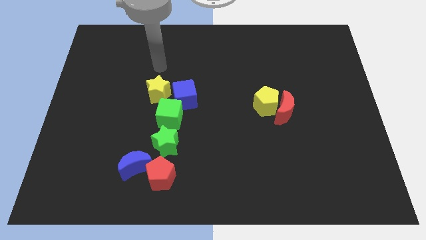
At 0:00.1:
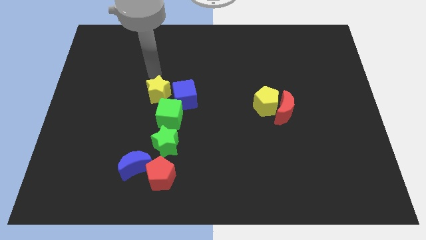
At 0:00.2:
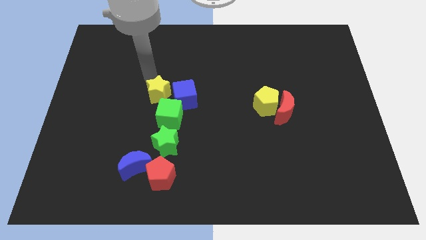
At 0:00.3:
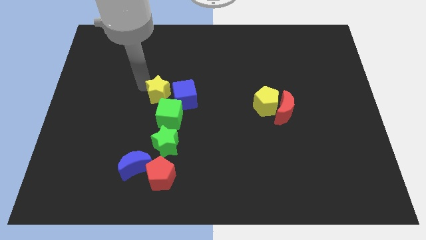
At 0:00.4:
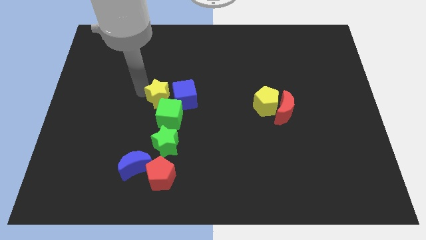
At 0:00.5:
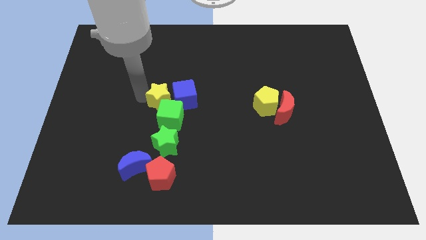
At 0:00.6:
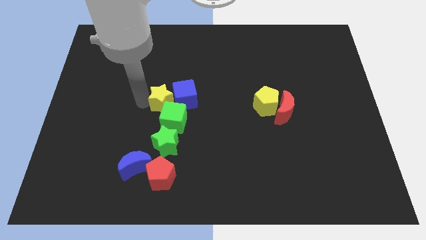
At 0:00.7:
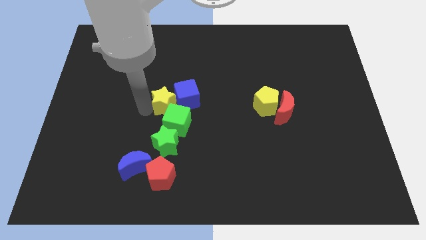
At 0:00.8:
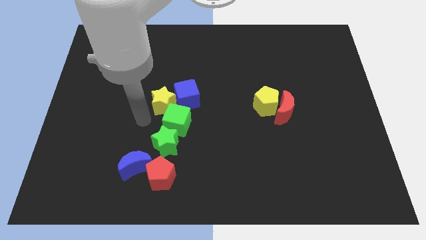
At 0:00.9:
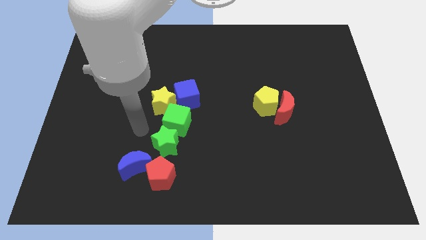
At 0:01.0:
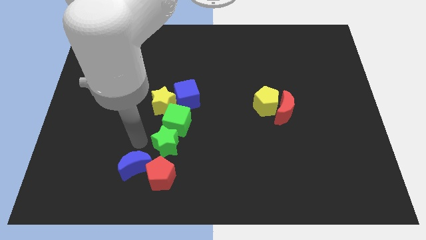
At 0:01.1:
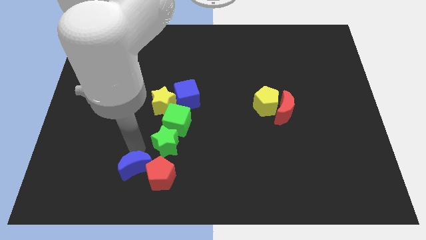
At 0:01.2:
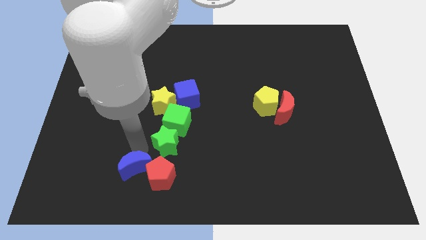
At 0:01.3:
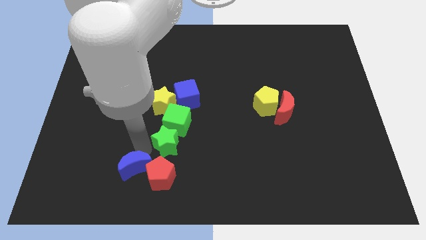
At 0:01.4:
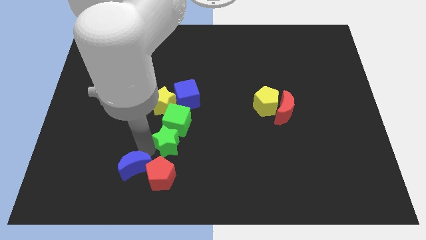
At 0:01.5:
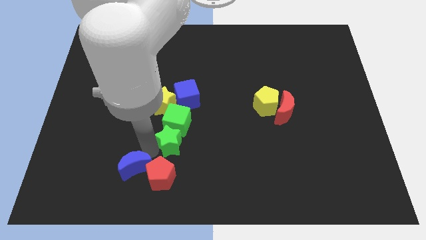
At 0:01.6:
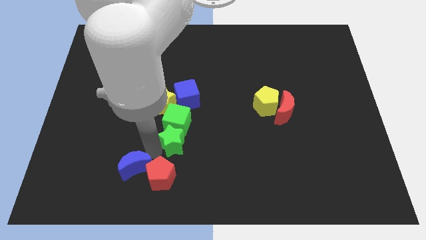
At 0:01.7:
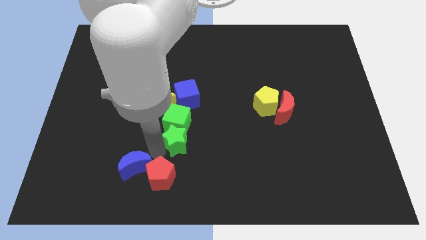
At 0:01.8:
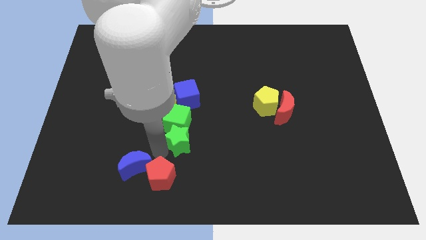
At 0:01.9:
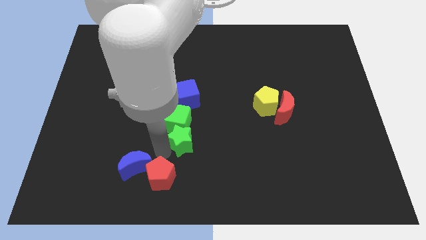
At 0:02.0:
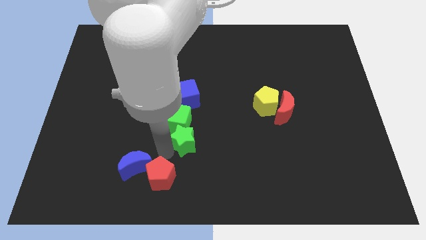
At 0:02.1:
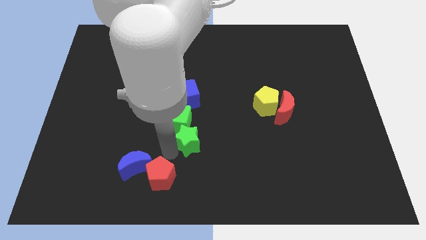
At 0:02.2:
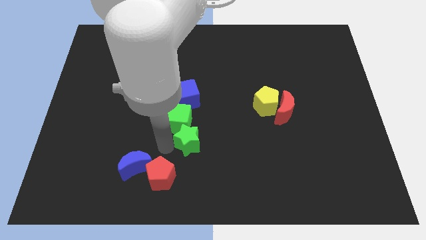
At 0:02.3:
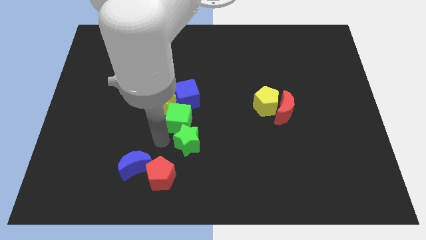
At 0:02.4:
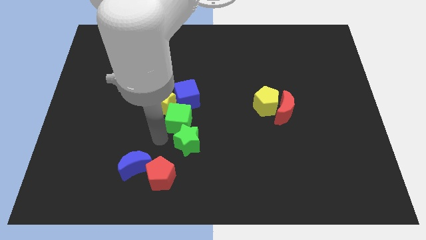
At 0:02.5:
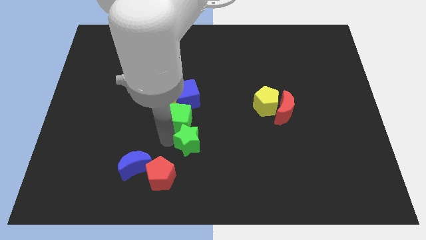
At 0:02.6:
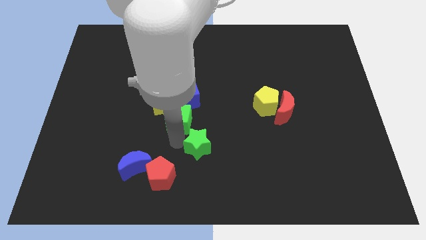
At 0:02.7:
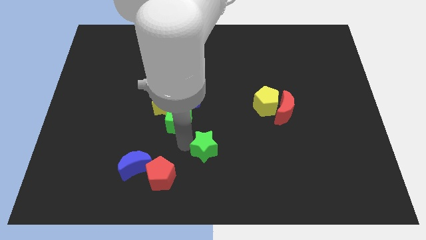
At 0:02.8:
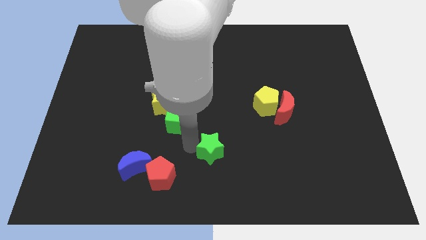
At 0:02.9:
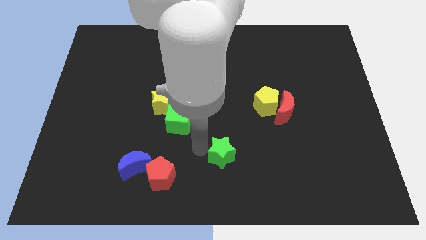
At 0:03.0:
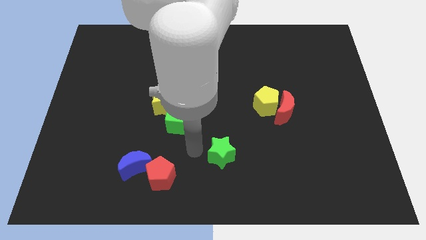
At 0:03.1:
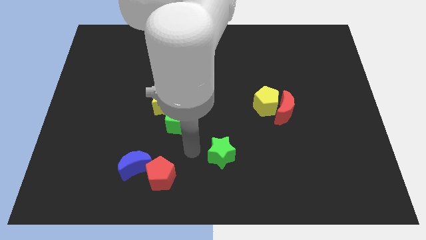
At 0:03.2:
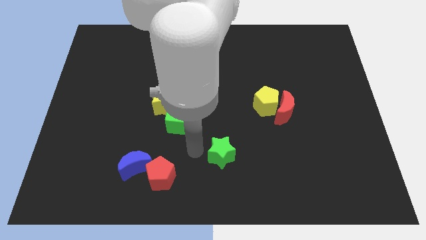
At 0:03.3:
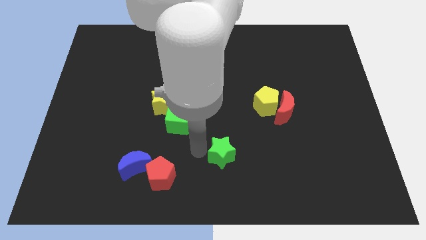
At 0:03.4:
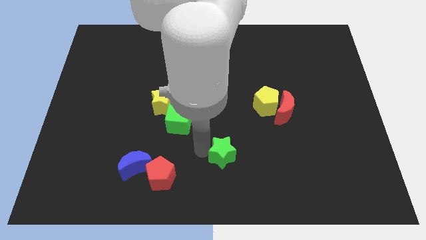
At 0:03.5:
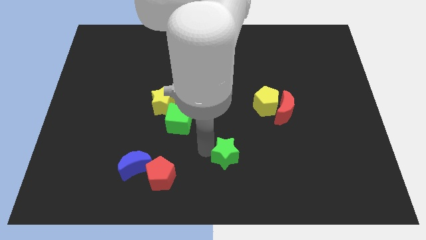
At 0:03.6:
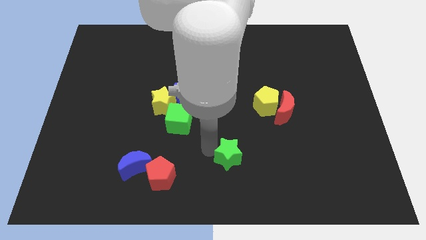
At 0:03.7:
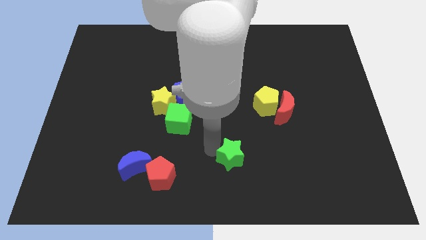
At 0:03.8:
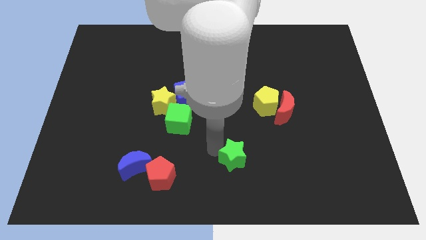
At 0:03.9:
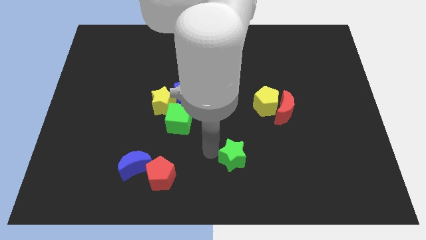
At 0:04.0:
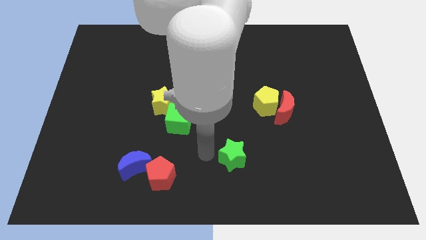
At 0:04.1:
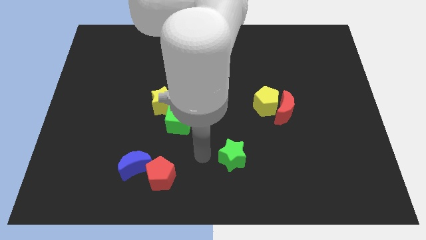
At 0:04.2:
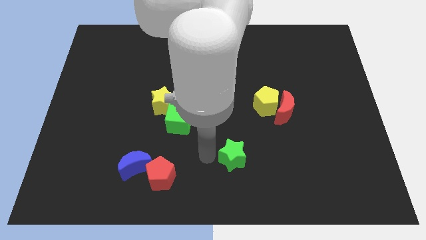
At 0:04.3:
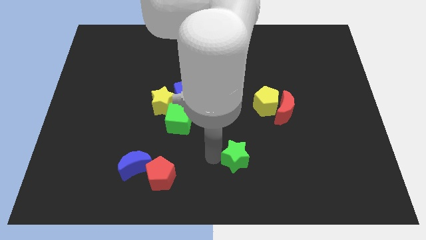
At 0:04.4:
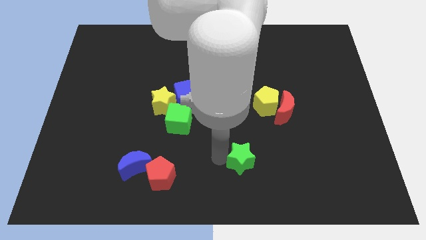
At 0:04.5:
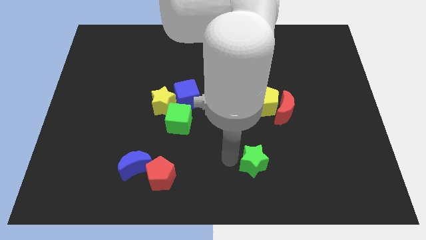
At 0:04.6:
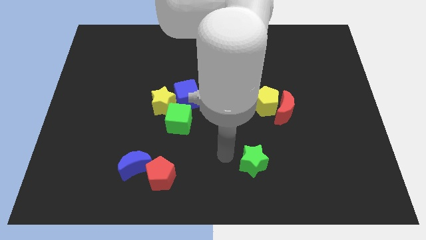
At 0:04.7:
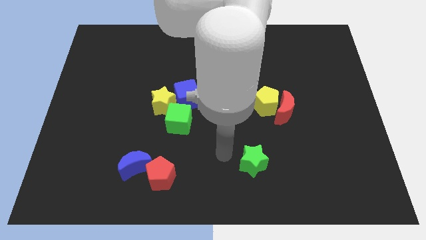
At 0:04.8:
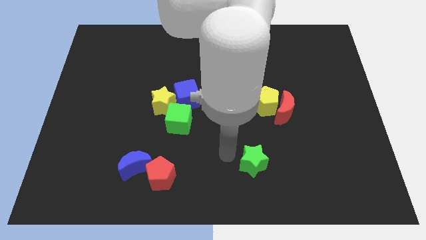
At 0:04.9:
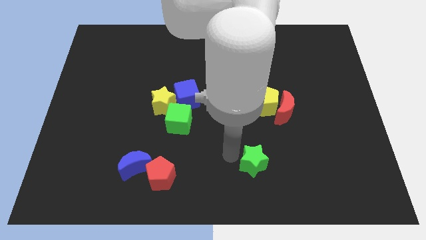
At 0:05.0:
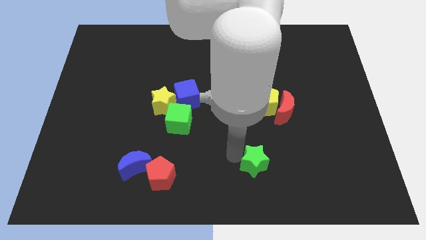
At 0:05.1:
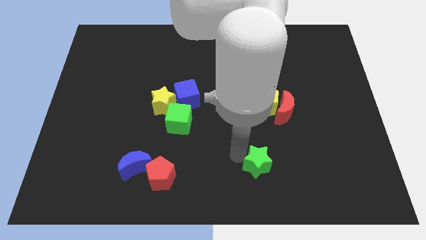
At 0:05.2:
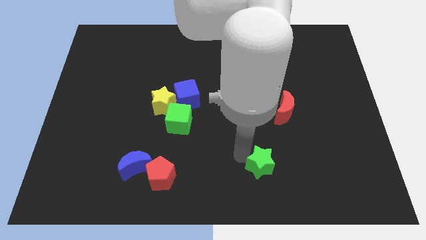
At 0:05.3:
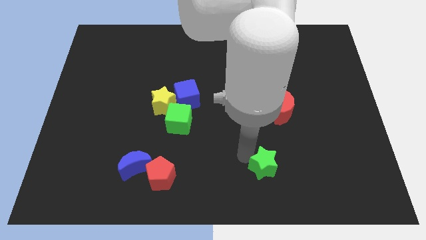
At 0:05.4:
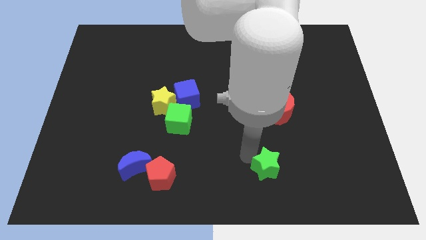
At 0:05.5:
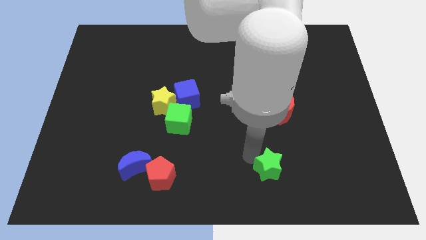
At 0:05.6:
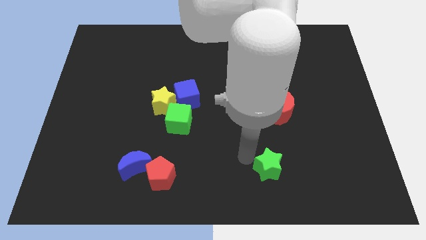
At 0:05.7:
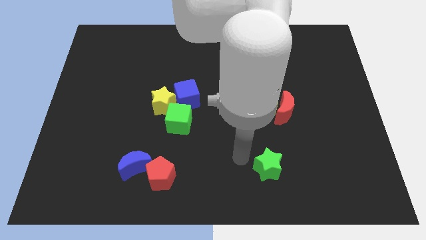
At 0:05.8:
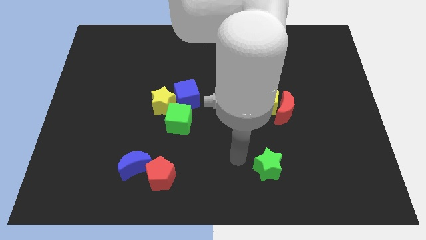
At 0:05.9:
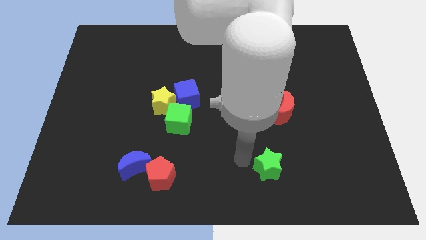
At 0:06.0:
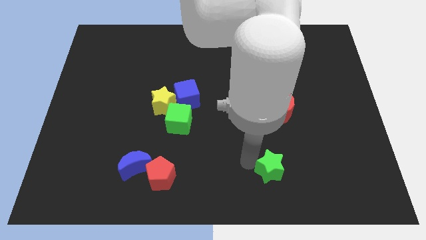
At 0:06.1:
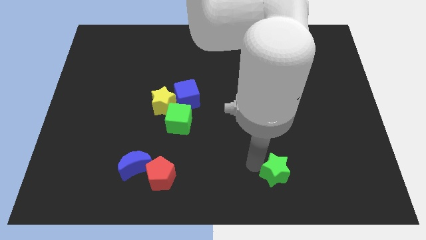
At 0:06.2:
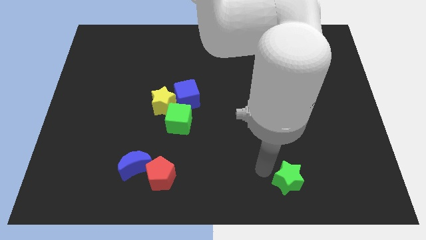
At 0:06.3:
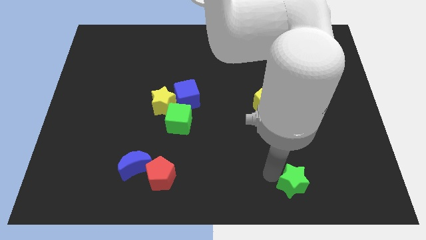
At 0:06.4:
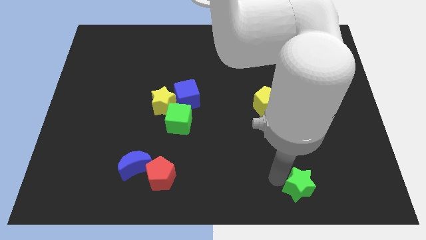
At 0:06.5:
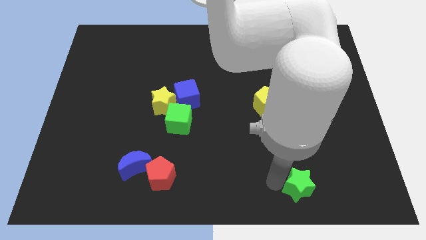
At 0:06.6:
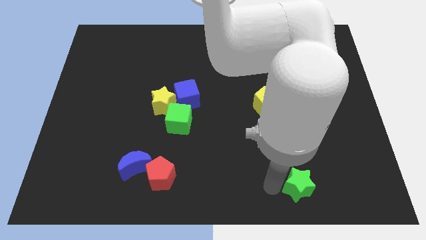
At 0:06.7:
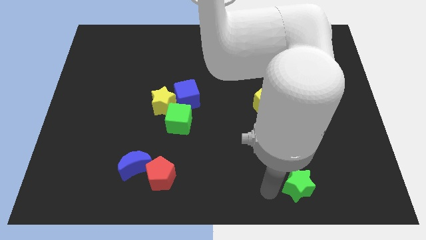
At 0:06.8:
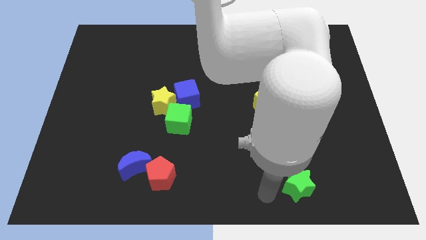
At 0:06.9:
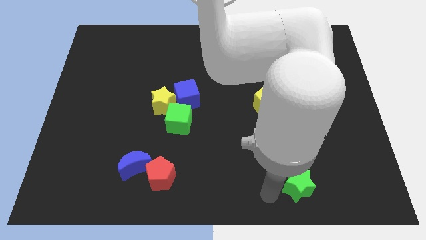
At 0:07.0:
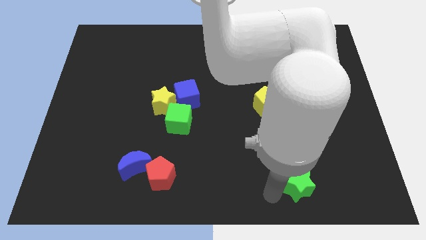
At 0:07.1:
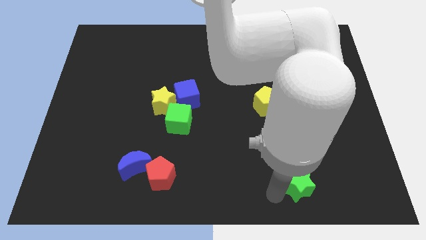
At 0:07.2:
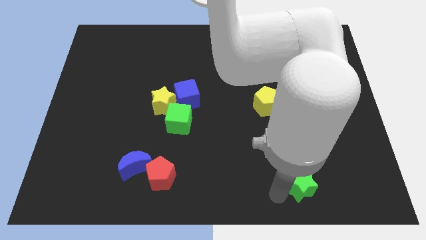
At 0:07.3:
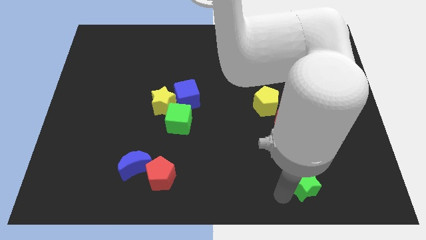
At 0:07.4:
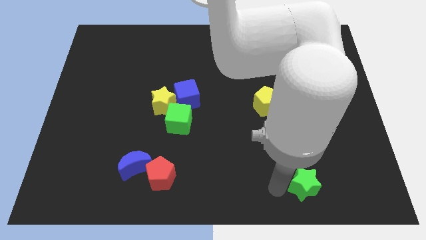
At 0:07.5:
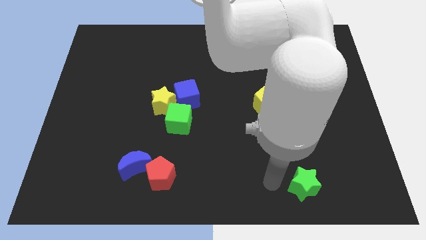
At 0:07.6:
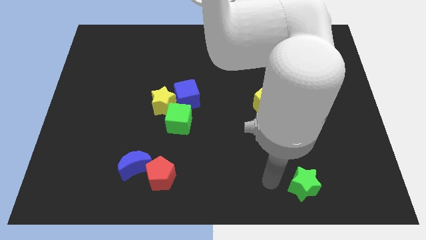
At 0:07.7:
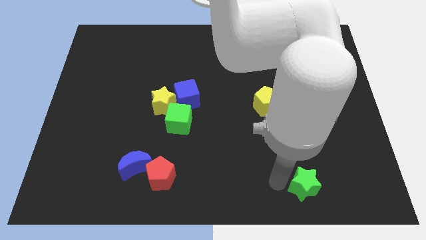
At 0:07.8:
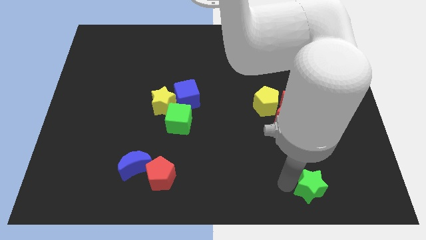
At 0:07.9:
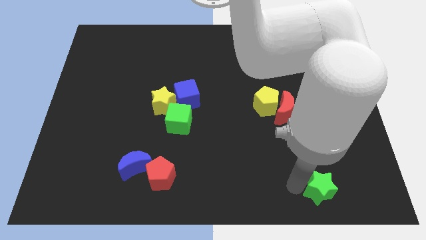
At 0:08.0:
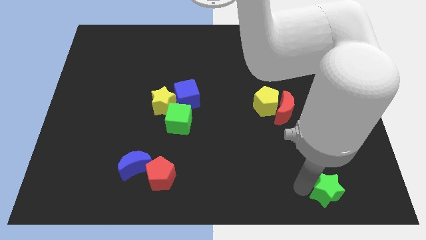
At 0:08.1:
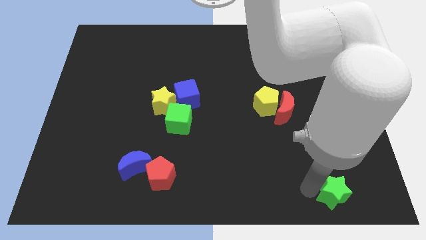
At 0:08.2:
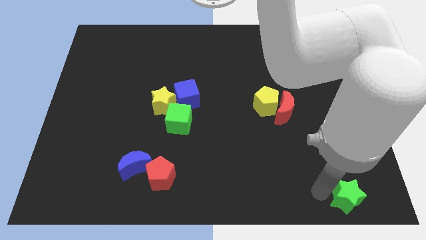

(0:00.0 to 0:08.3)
put the green star to the bottom right corner
